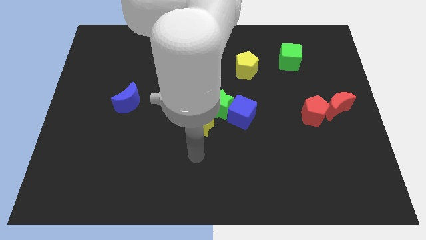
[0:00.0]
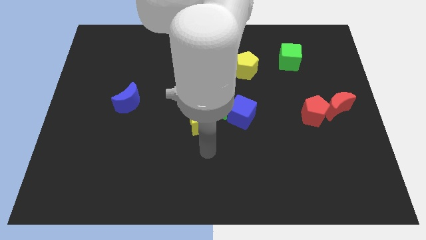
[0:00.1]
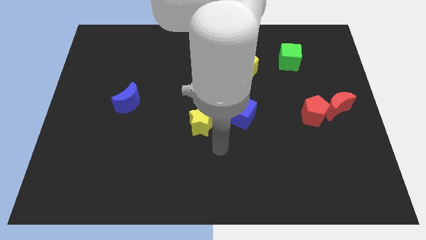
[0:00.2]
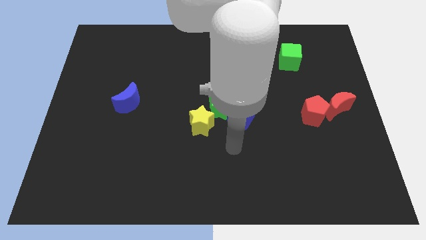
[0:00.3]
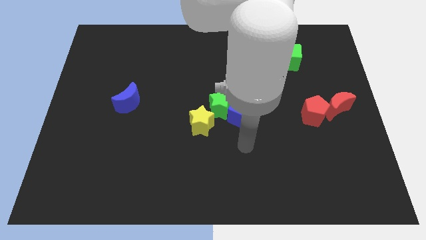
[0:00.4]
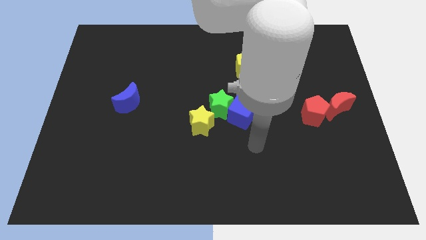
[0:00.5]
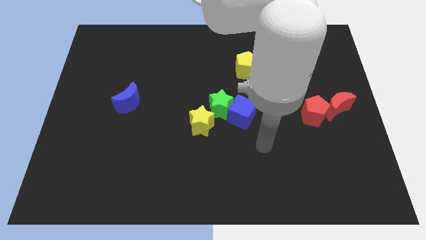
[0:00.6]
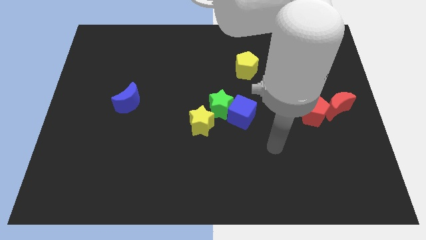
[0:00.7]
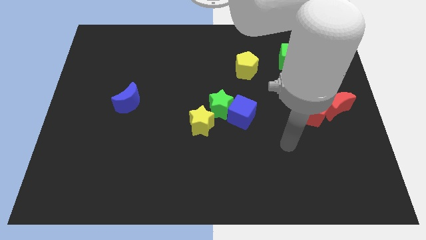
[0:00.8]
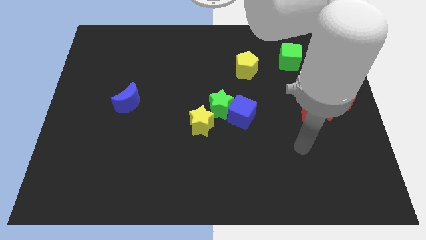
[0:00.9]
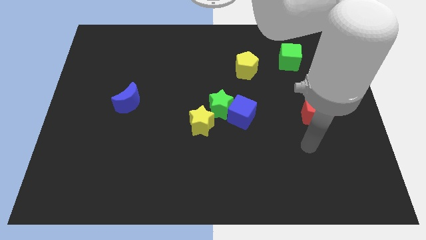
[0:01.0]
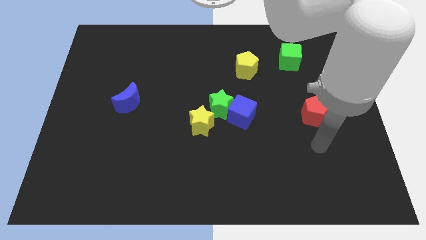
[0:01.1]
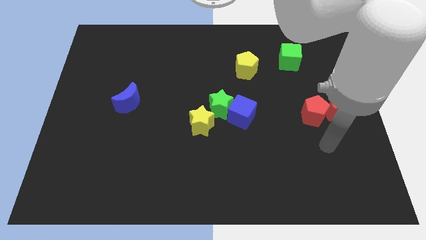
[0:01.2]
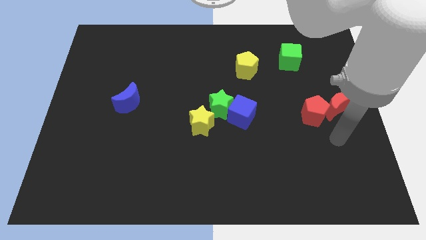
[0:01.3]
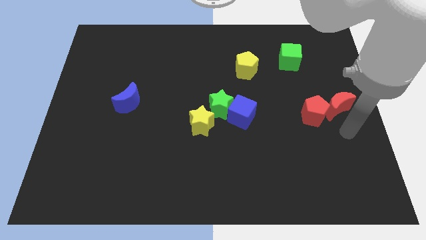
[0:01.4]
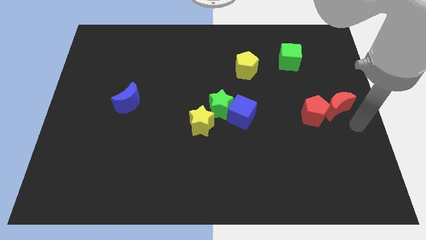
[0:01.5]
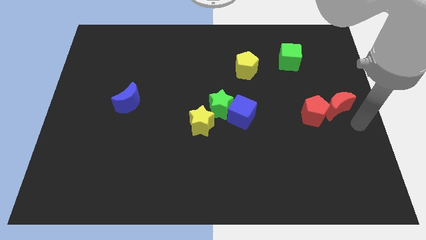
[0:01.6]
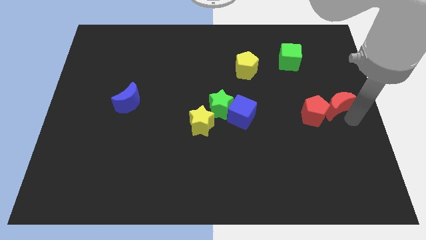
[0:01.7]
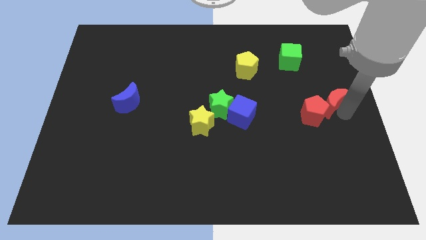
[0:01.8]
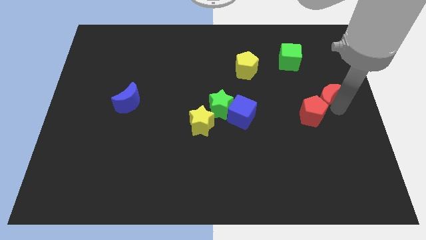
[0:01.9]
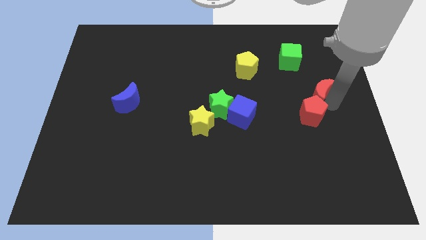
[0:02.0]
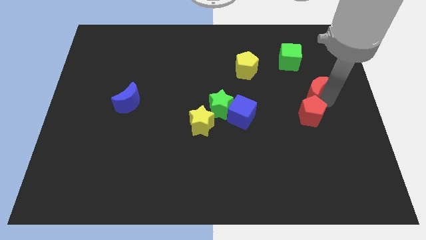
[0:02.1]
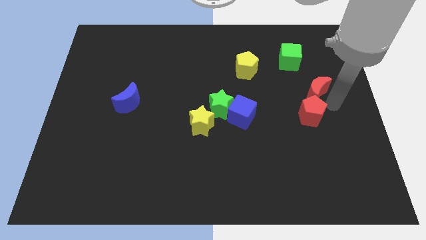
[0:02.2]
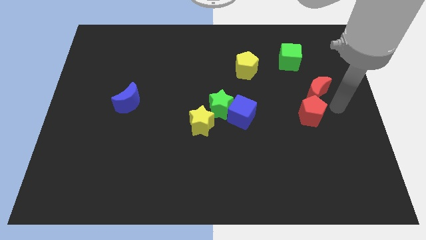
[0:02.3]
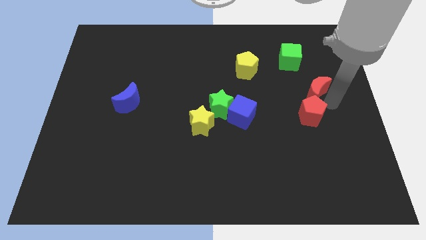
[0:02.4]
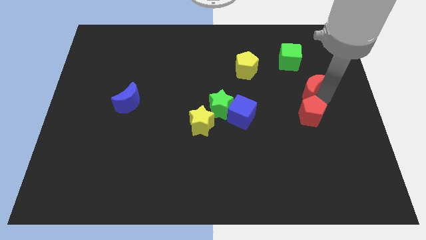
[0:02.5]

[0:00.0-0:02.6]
slightly push the red moon diagonally up and to the left

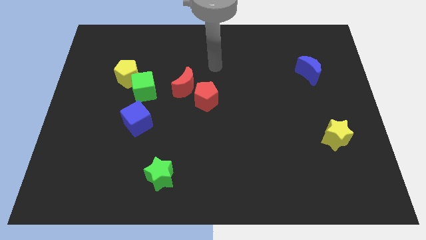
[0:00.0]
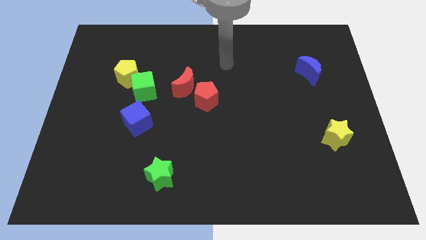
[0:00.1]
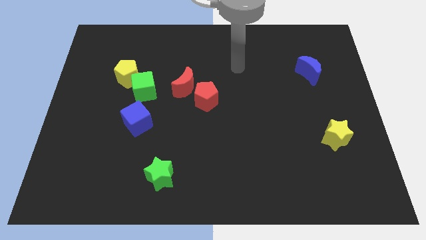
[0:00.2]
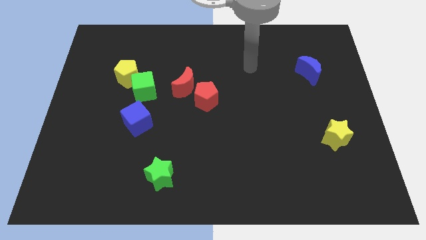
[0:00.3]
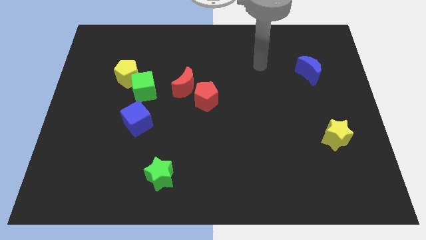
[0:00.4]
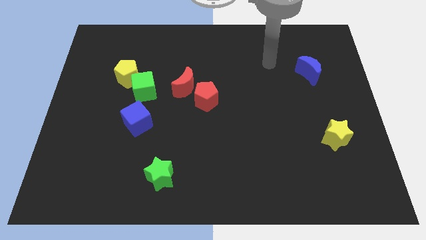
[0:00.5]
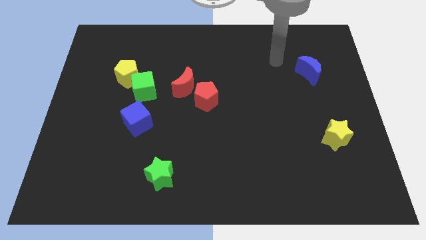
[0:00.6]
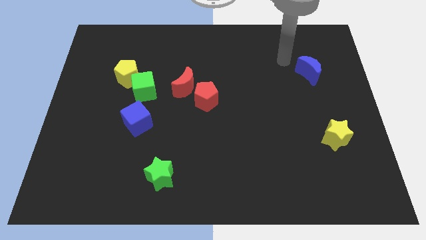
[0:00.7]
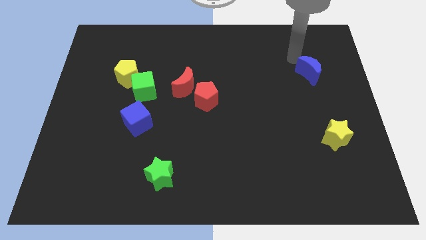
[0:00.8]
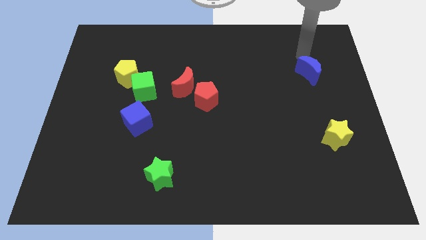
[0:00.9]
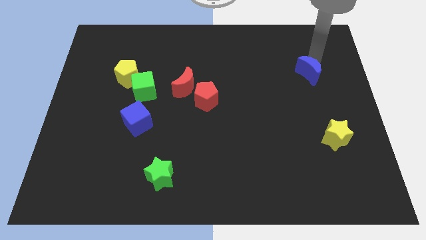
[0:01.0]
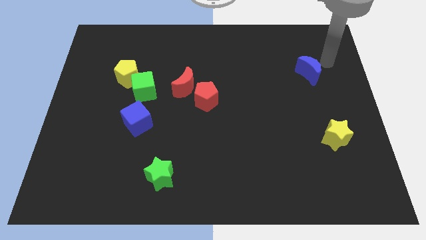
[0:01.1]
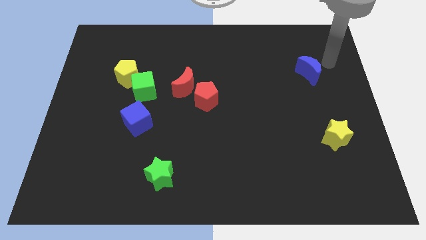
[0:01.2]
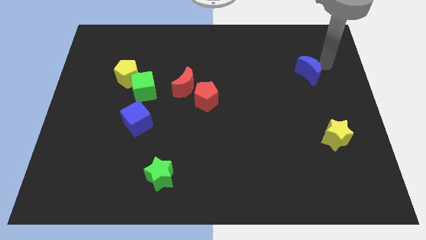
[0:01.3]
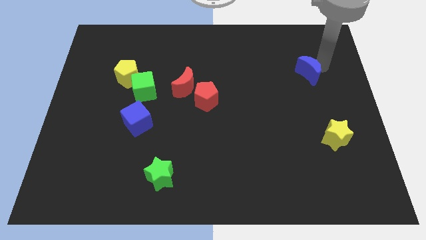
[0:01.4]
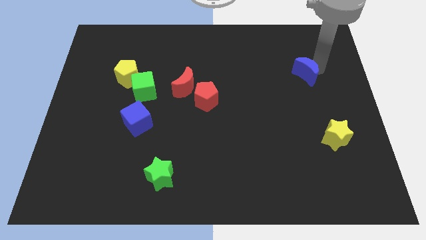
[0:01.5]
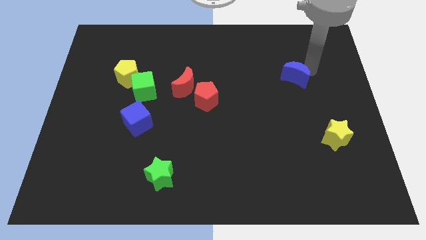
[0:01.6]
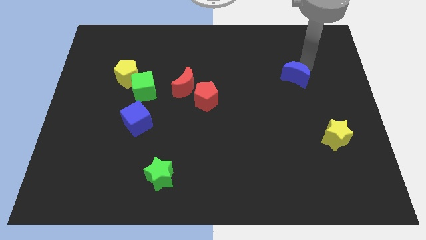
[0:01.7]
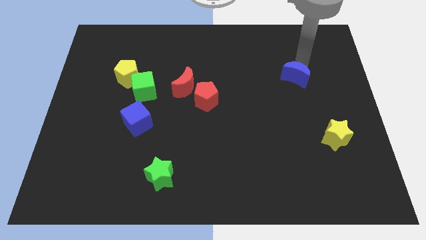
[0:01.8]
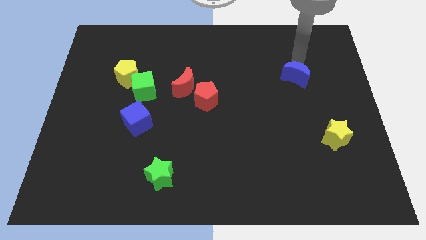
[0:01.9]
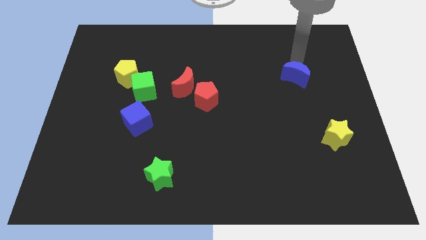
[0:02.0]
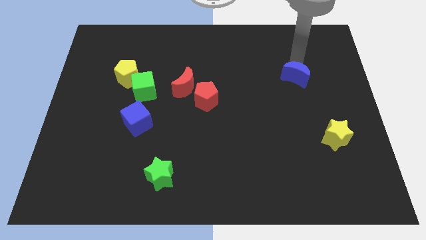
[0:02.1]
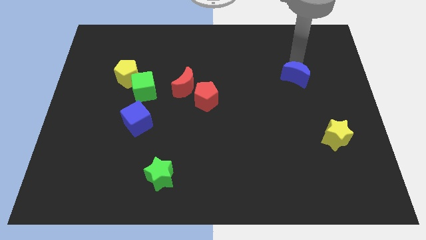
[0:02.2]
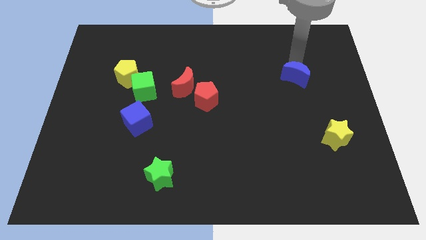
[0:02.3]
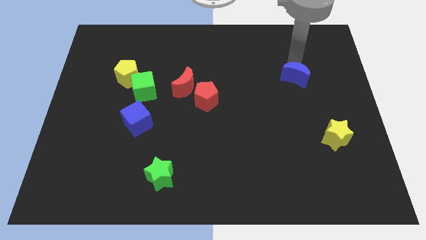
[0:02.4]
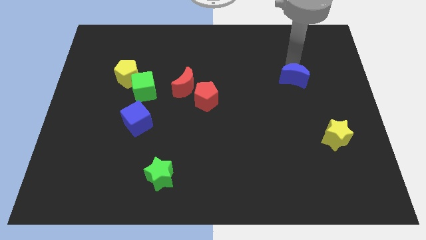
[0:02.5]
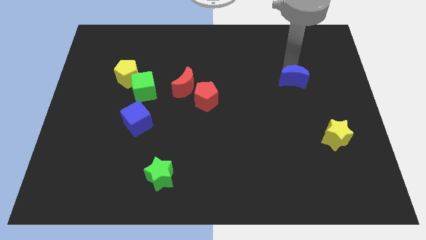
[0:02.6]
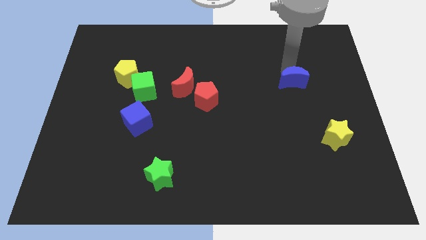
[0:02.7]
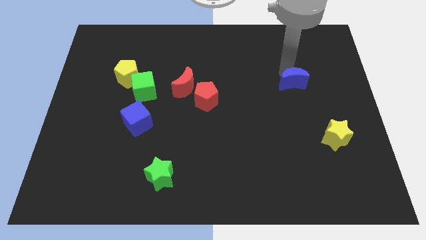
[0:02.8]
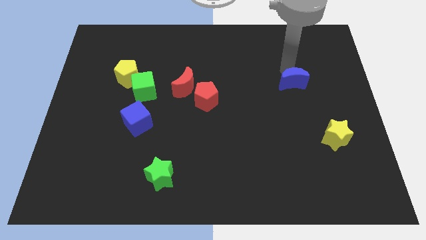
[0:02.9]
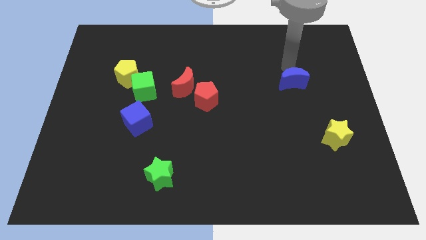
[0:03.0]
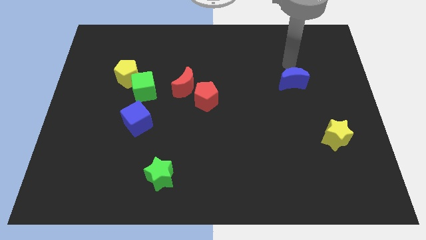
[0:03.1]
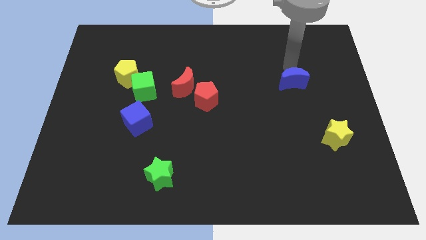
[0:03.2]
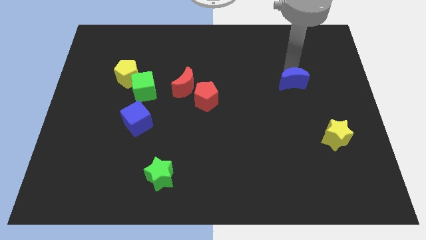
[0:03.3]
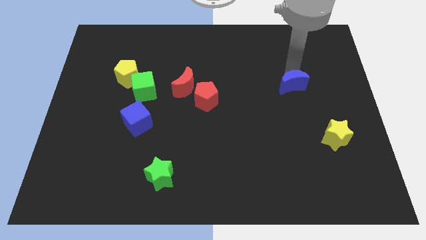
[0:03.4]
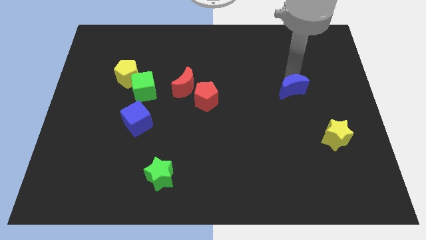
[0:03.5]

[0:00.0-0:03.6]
slightly push the blue moon diagonally downwards and to the left

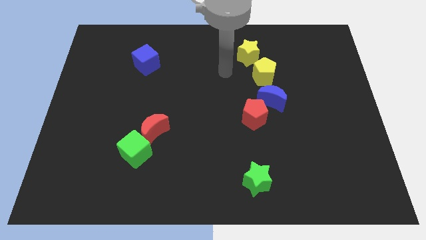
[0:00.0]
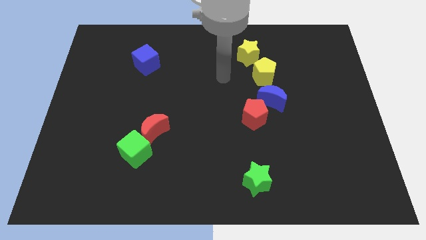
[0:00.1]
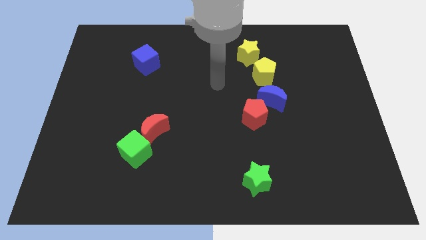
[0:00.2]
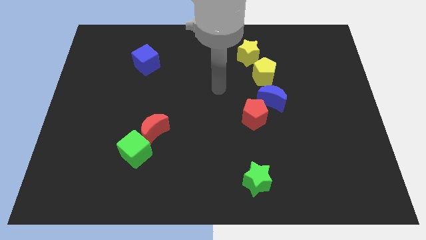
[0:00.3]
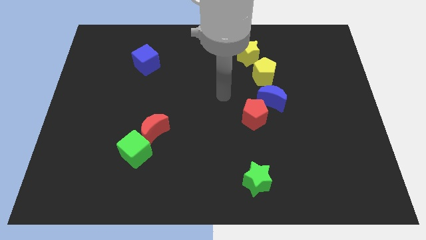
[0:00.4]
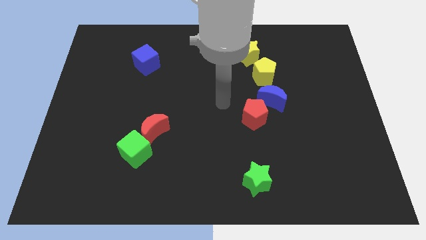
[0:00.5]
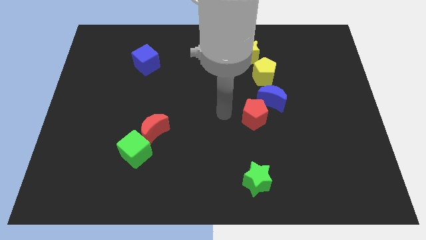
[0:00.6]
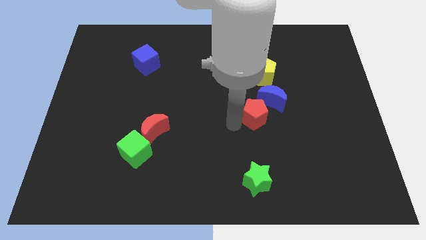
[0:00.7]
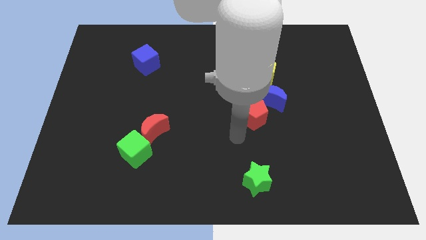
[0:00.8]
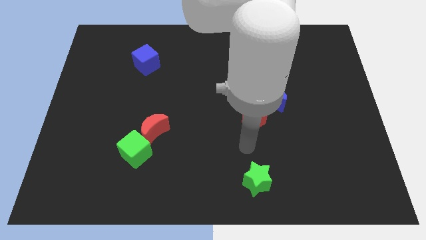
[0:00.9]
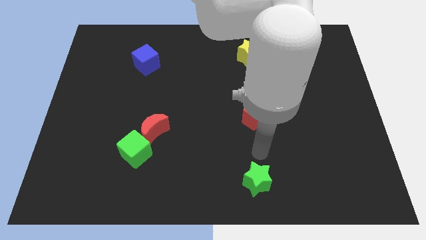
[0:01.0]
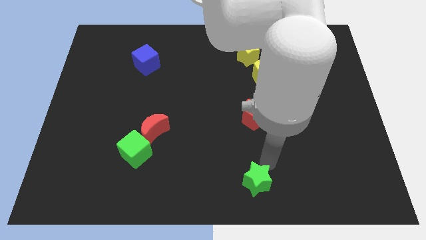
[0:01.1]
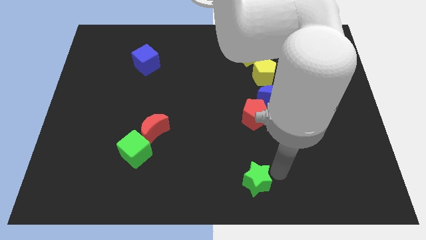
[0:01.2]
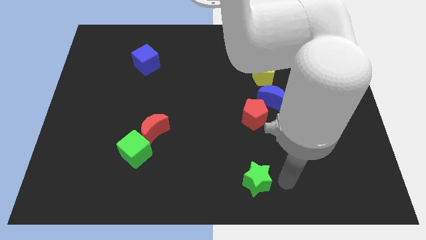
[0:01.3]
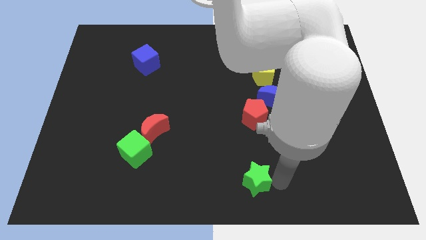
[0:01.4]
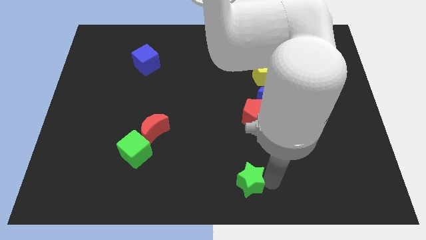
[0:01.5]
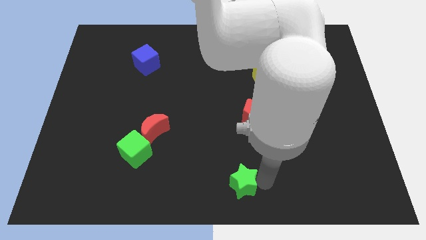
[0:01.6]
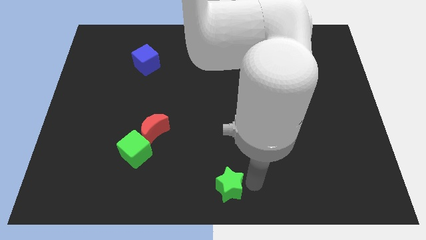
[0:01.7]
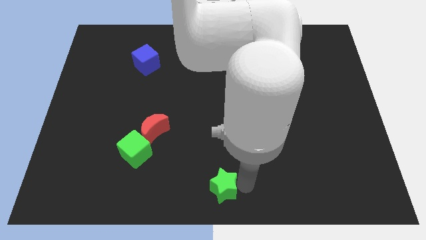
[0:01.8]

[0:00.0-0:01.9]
slide the green star a little bit left
